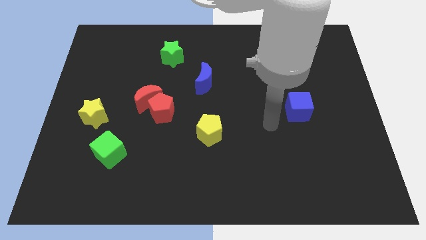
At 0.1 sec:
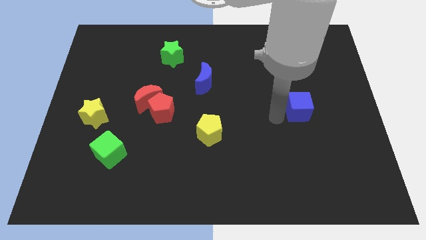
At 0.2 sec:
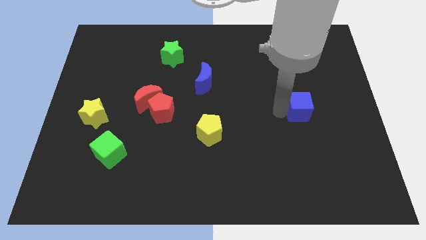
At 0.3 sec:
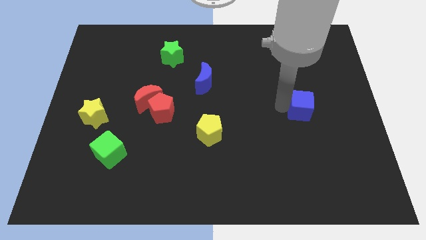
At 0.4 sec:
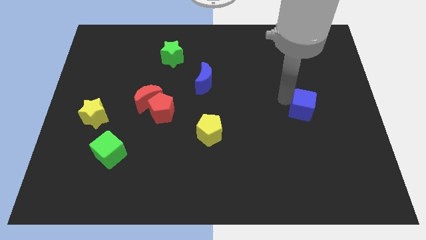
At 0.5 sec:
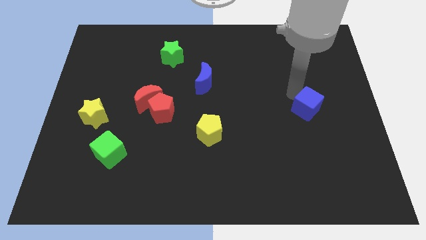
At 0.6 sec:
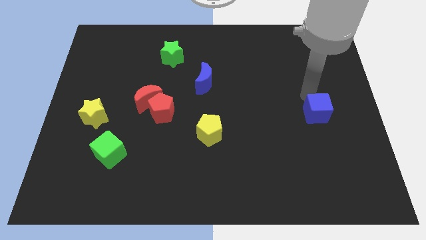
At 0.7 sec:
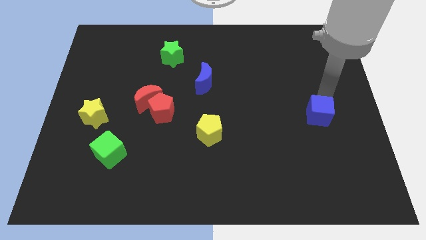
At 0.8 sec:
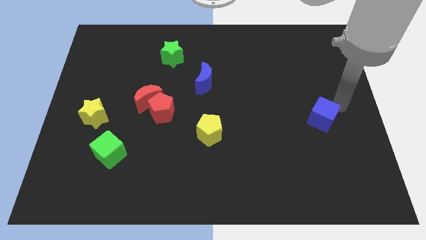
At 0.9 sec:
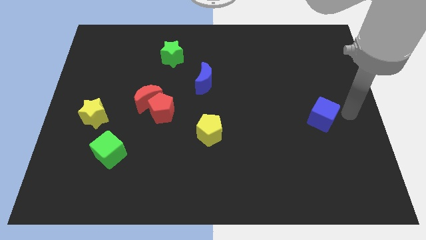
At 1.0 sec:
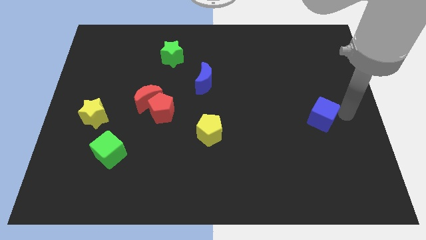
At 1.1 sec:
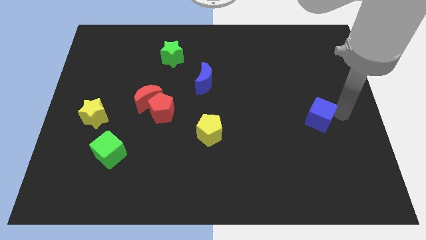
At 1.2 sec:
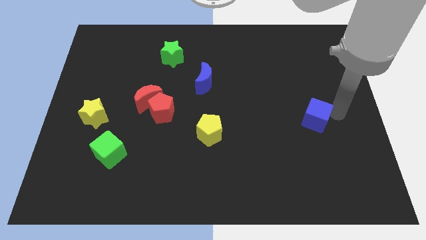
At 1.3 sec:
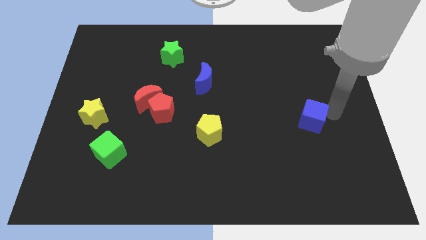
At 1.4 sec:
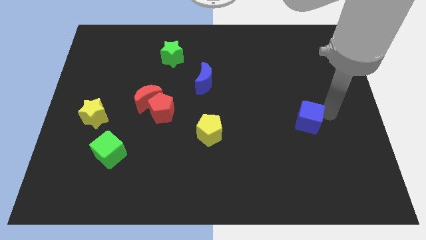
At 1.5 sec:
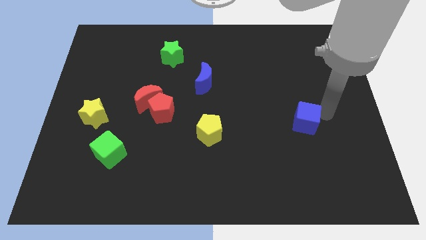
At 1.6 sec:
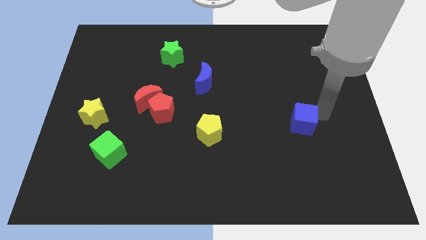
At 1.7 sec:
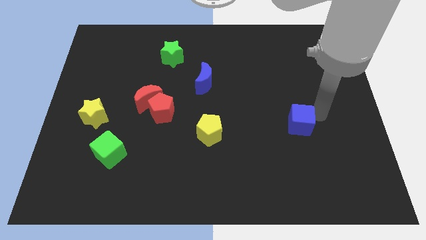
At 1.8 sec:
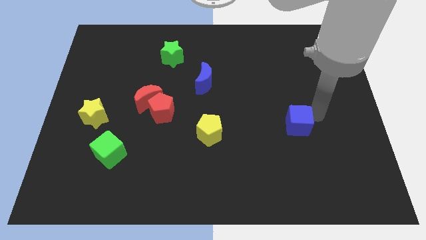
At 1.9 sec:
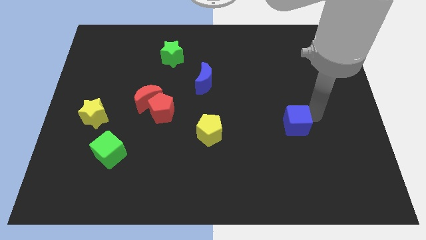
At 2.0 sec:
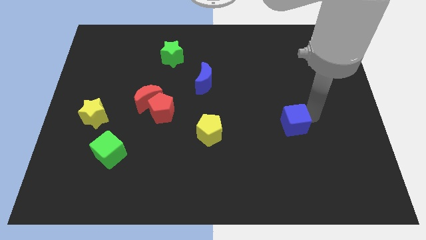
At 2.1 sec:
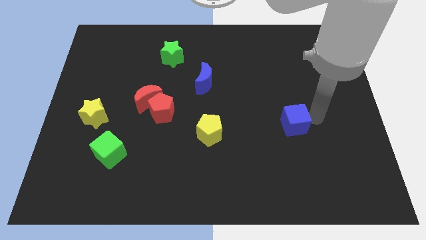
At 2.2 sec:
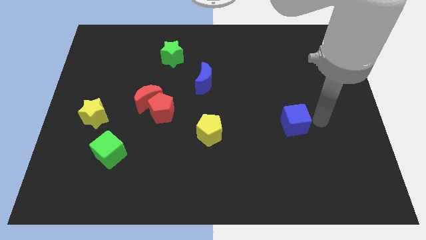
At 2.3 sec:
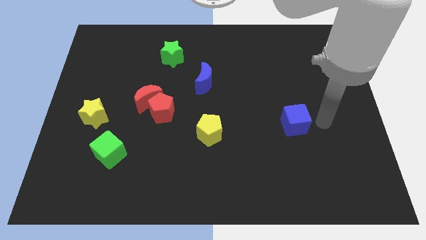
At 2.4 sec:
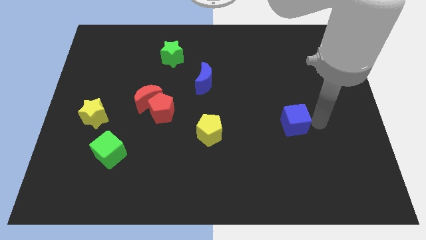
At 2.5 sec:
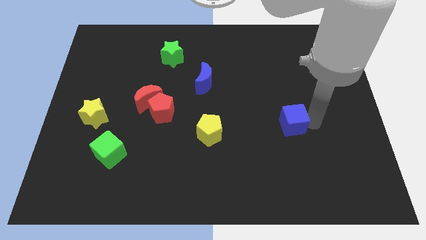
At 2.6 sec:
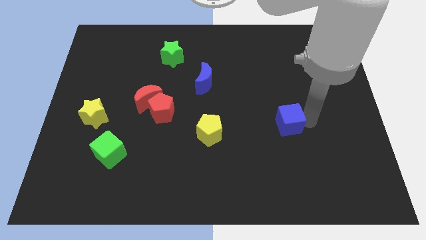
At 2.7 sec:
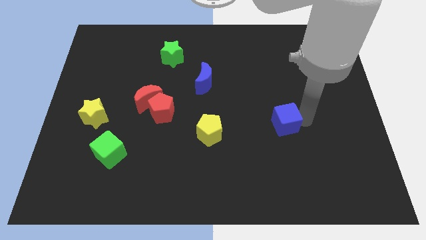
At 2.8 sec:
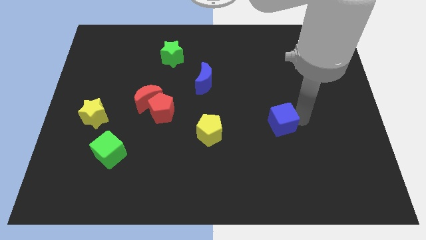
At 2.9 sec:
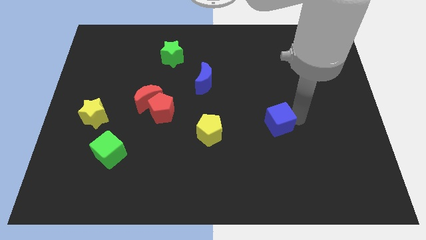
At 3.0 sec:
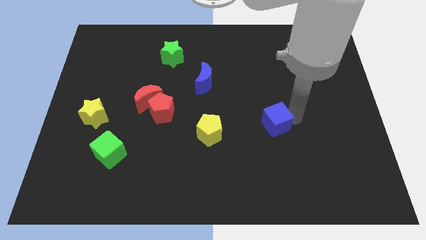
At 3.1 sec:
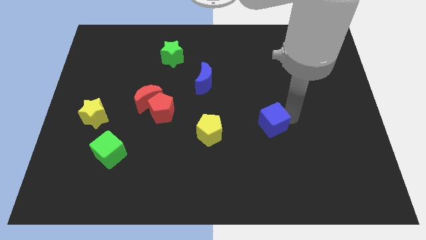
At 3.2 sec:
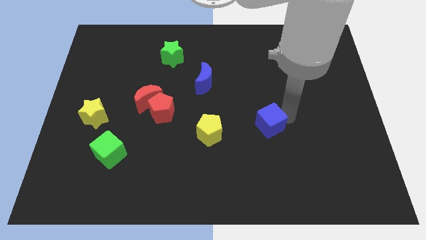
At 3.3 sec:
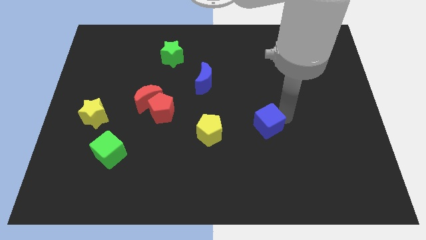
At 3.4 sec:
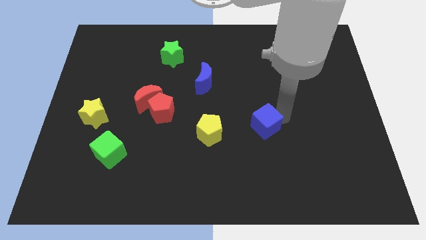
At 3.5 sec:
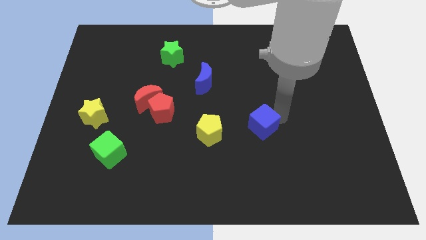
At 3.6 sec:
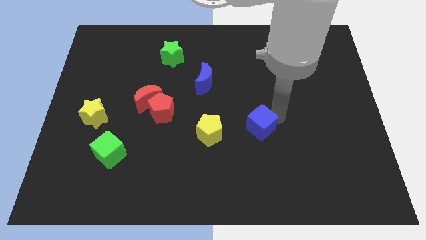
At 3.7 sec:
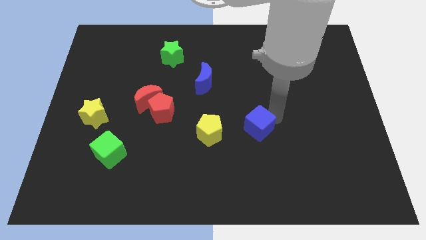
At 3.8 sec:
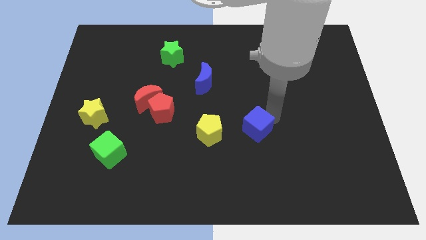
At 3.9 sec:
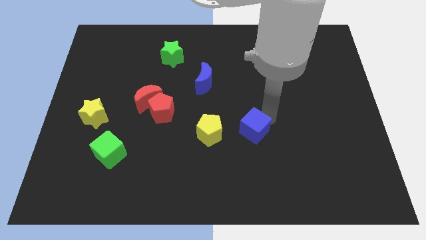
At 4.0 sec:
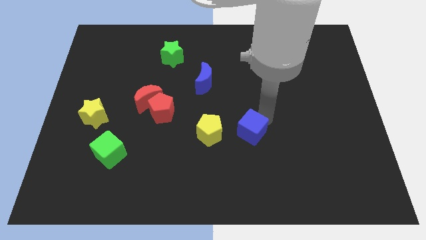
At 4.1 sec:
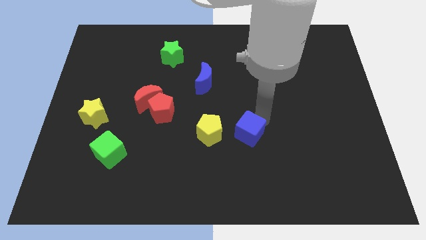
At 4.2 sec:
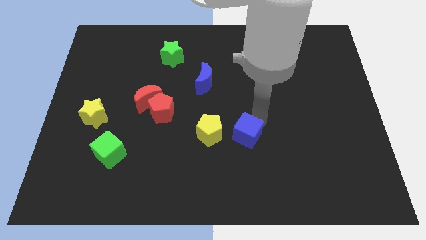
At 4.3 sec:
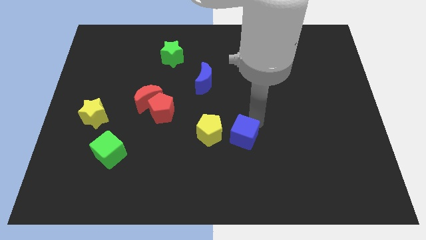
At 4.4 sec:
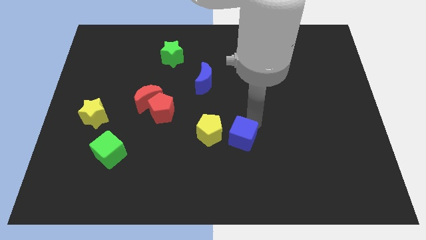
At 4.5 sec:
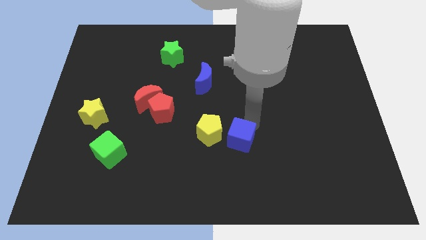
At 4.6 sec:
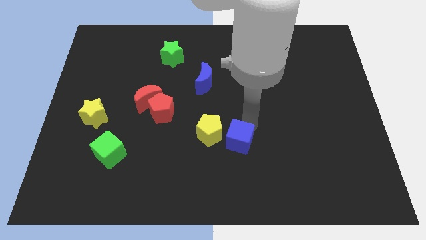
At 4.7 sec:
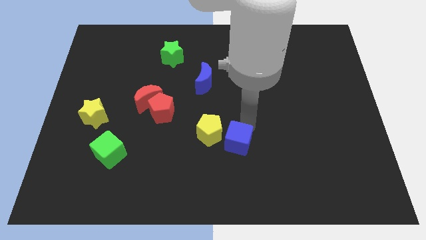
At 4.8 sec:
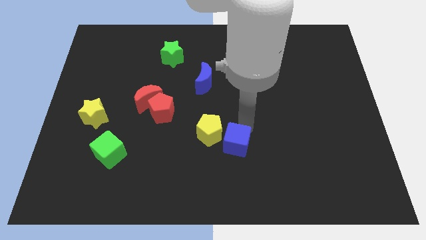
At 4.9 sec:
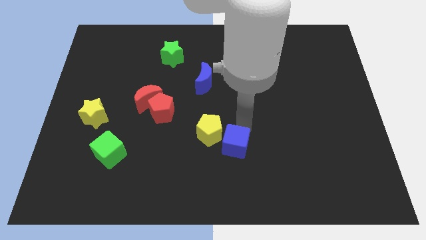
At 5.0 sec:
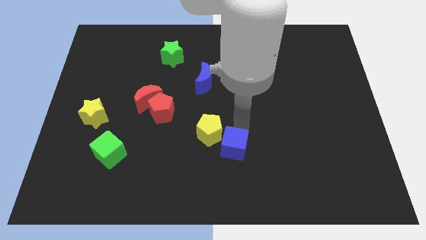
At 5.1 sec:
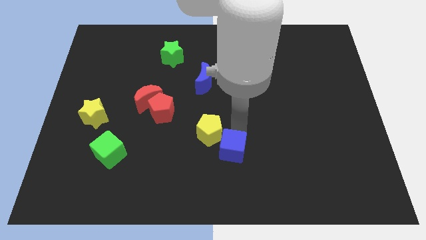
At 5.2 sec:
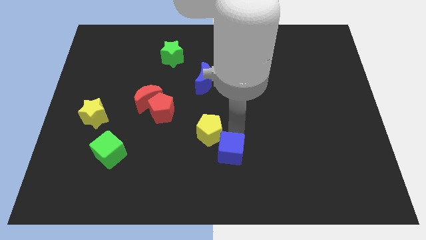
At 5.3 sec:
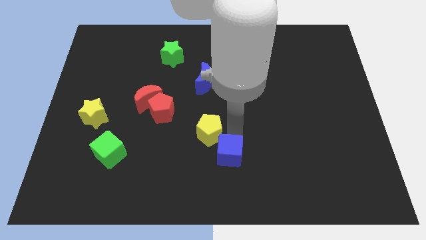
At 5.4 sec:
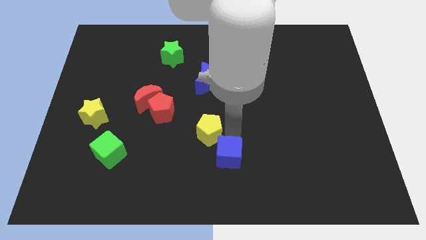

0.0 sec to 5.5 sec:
push the blue cube to the bottom

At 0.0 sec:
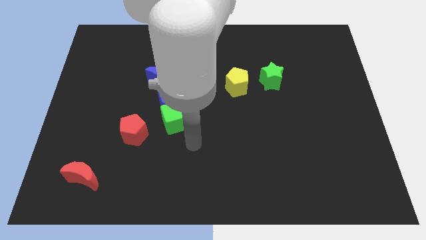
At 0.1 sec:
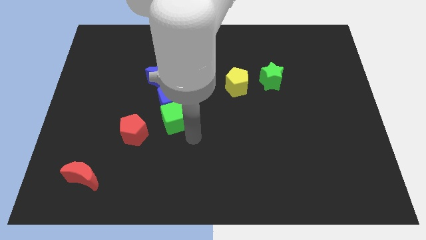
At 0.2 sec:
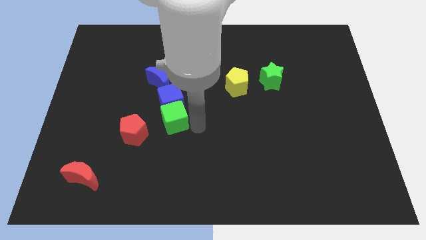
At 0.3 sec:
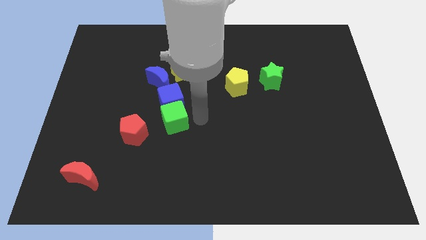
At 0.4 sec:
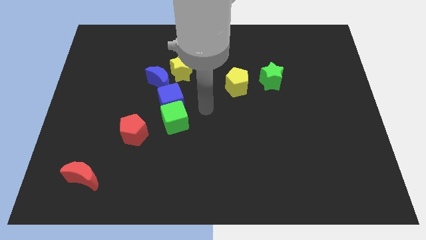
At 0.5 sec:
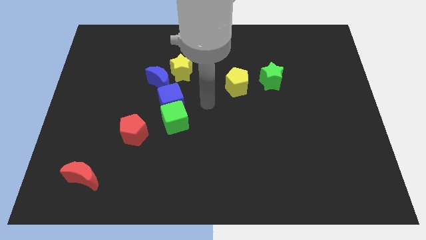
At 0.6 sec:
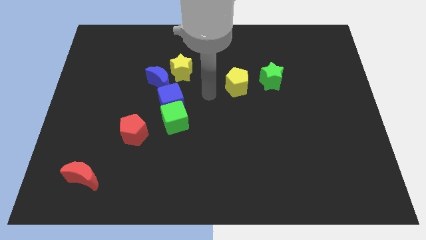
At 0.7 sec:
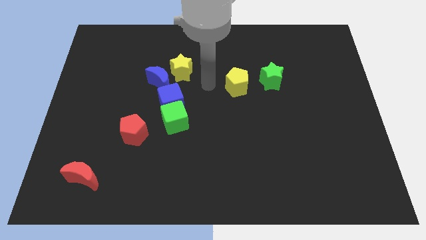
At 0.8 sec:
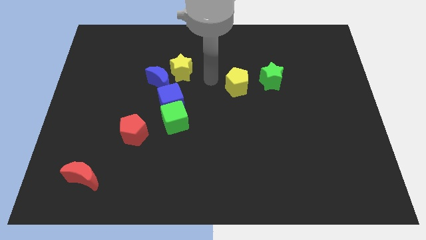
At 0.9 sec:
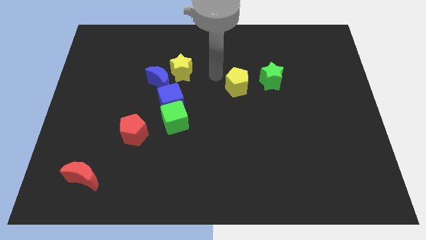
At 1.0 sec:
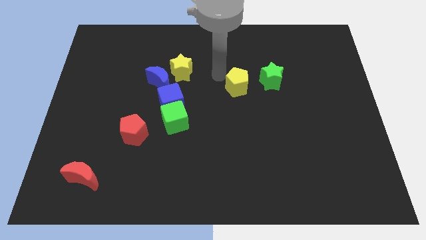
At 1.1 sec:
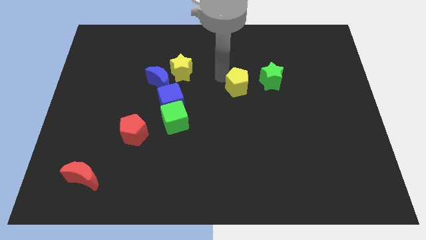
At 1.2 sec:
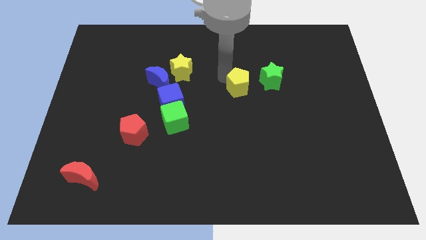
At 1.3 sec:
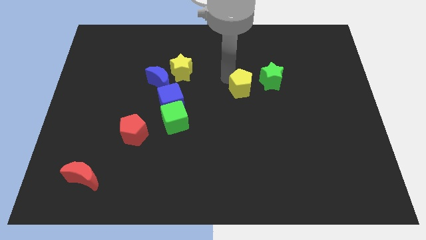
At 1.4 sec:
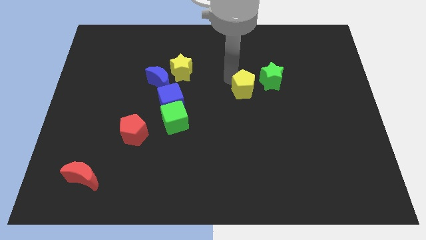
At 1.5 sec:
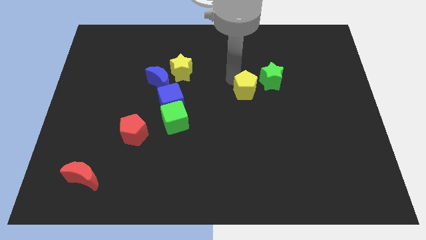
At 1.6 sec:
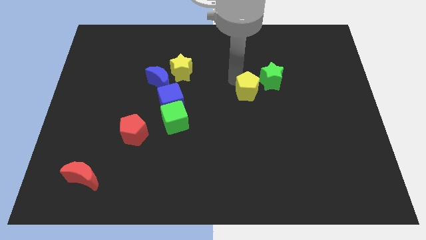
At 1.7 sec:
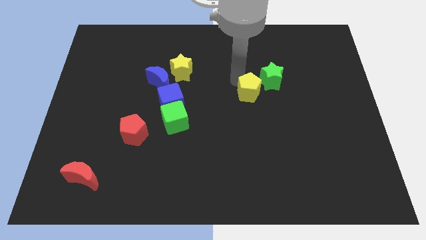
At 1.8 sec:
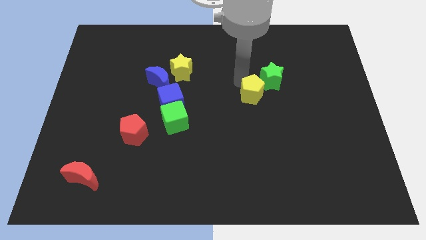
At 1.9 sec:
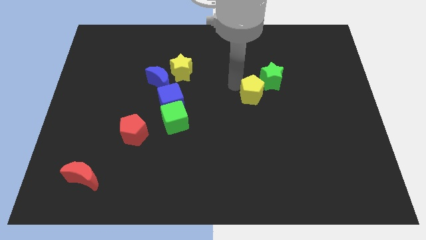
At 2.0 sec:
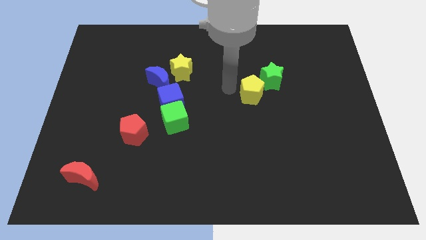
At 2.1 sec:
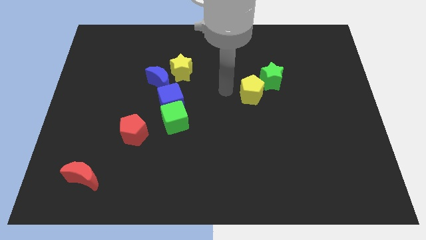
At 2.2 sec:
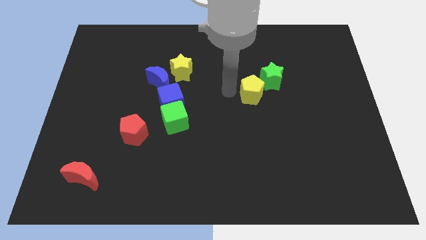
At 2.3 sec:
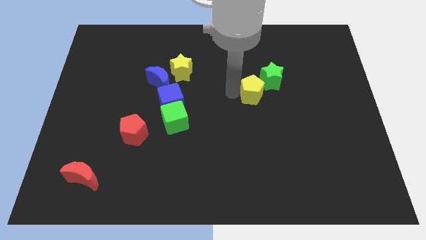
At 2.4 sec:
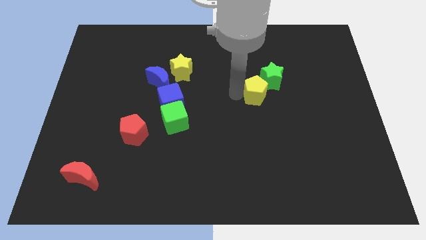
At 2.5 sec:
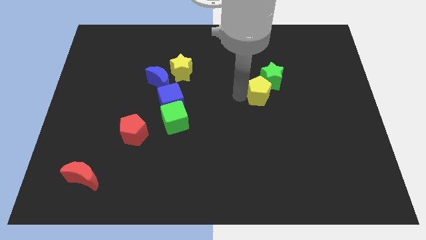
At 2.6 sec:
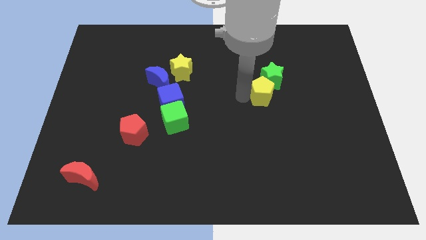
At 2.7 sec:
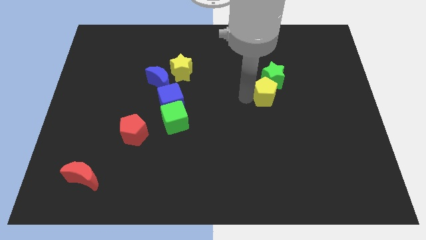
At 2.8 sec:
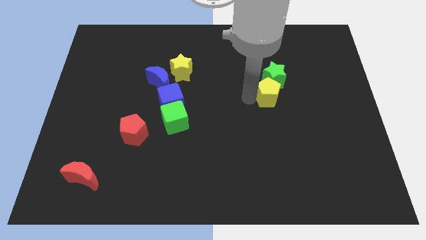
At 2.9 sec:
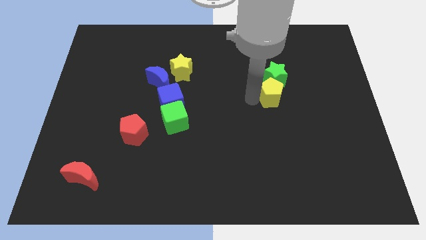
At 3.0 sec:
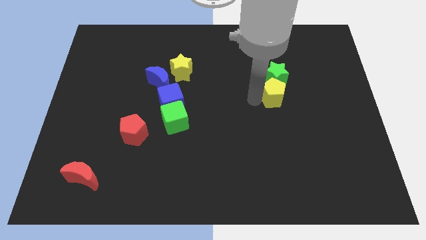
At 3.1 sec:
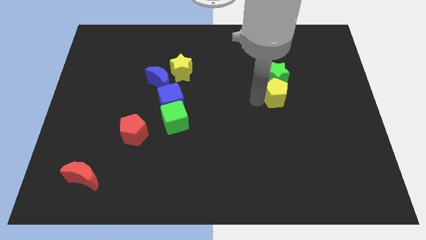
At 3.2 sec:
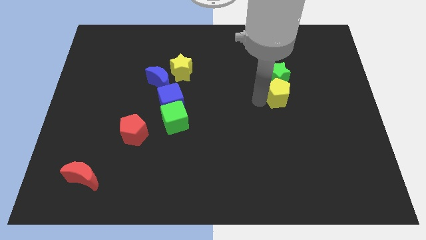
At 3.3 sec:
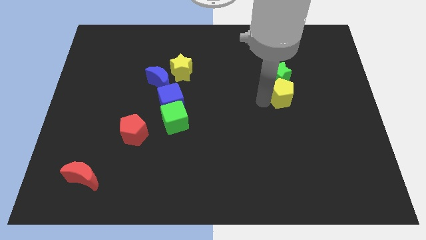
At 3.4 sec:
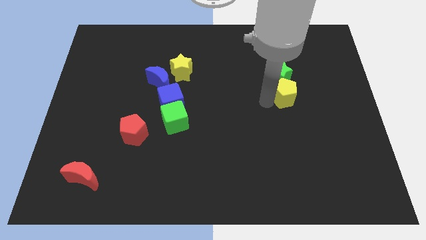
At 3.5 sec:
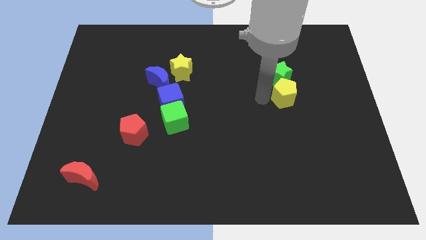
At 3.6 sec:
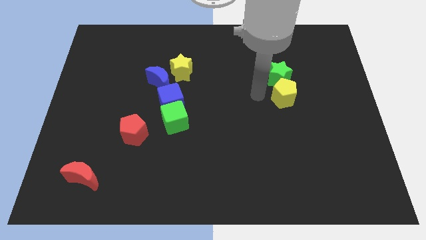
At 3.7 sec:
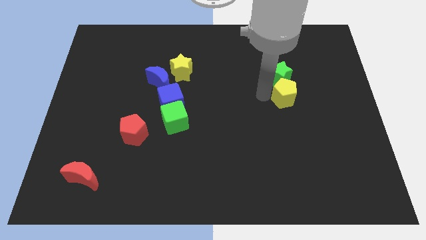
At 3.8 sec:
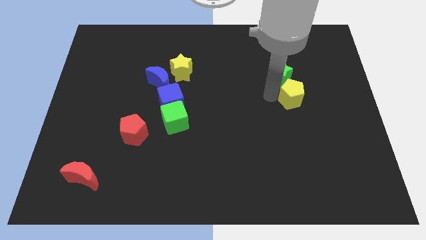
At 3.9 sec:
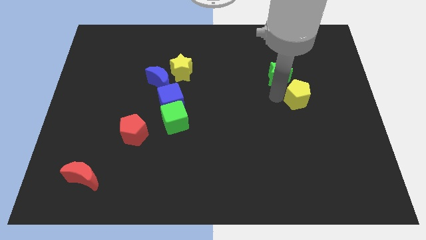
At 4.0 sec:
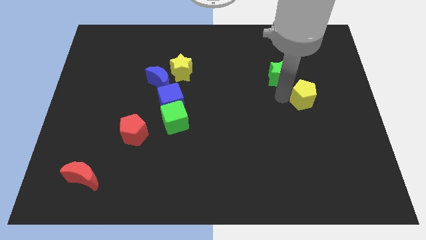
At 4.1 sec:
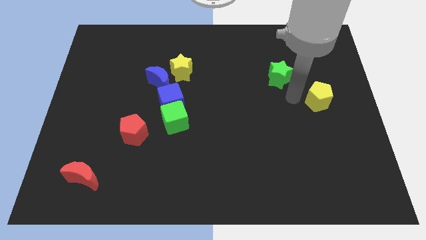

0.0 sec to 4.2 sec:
put the yellow pentagon to the center right
